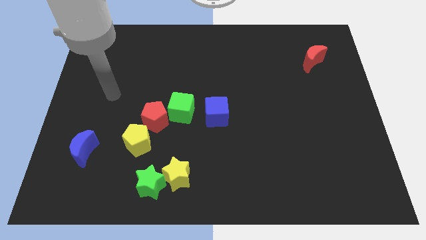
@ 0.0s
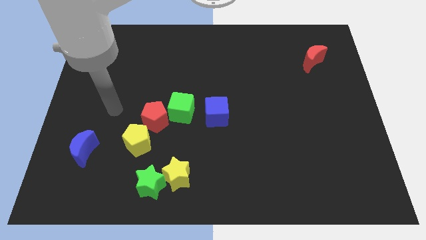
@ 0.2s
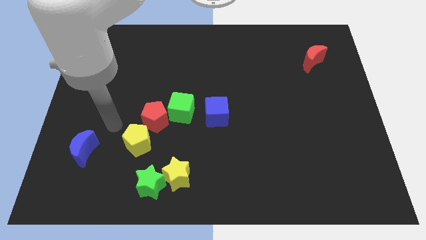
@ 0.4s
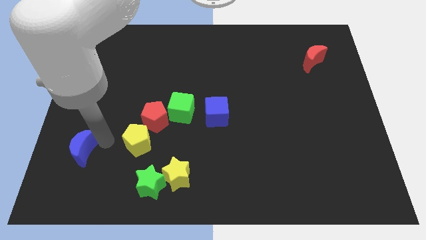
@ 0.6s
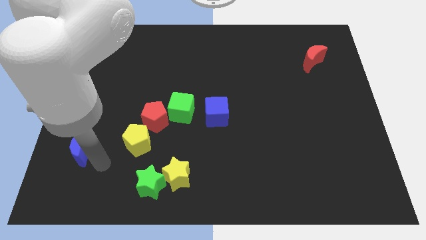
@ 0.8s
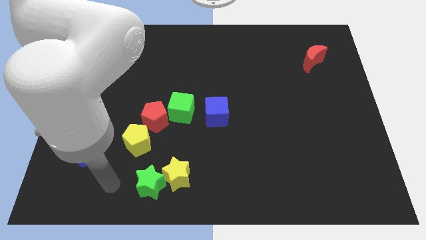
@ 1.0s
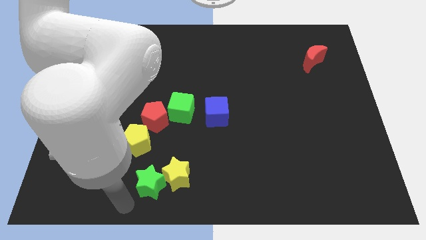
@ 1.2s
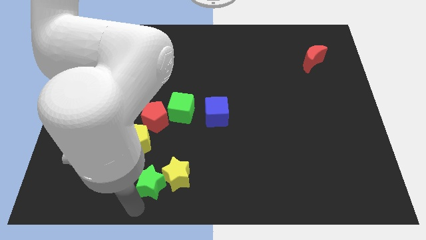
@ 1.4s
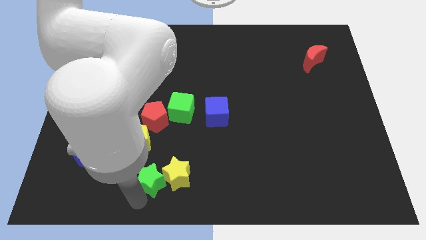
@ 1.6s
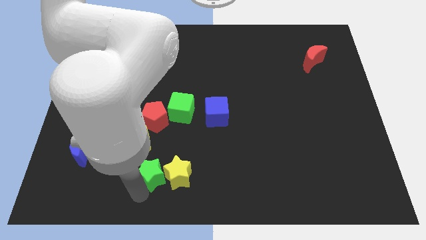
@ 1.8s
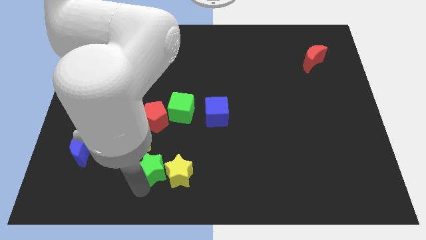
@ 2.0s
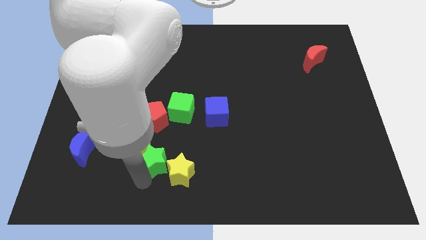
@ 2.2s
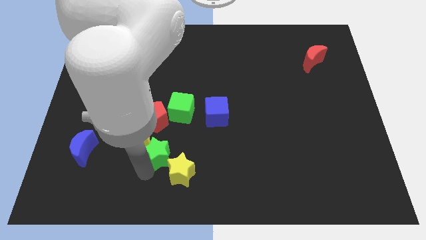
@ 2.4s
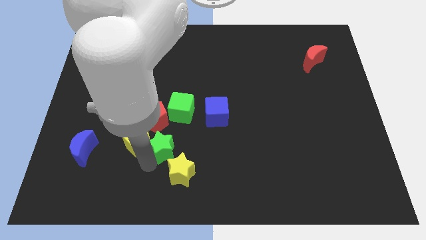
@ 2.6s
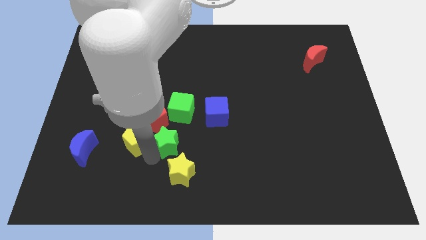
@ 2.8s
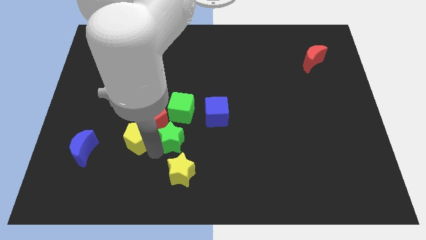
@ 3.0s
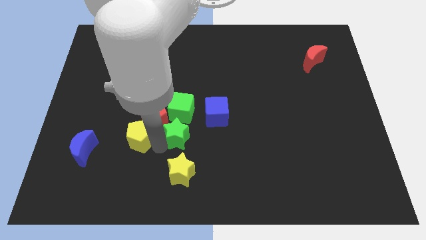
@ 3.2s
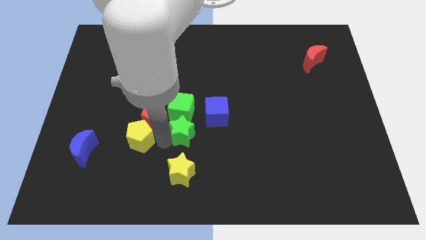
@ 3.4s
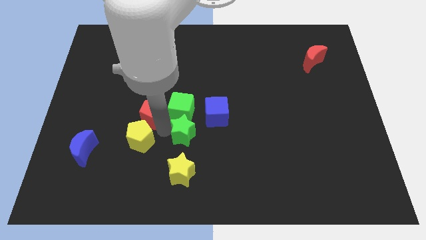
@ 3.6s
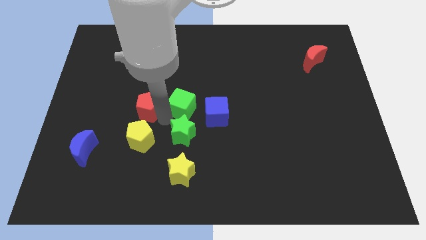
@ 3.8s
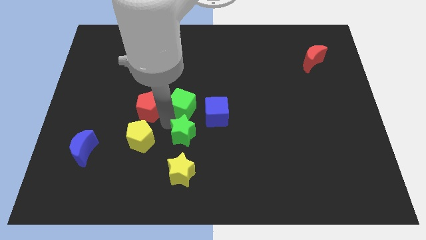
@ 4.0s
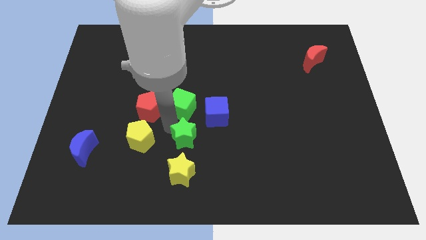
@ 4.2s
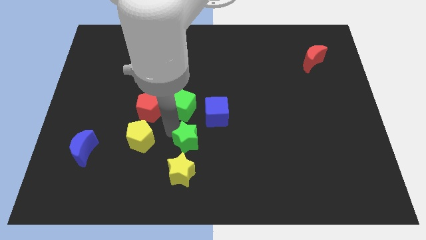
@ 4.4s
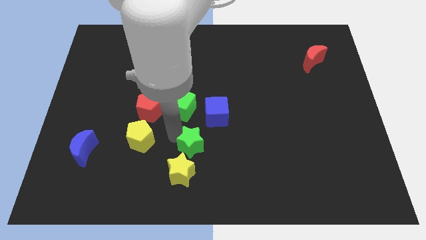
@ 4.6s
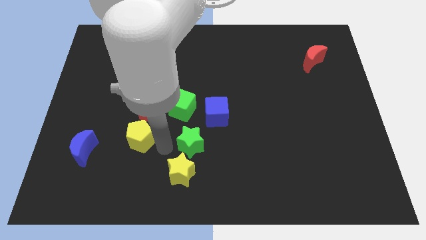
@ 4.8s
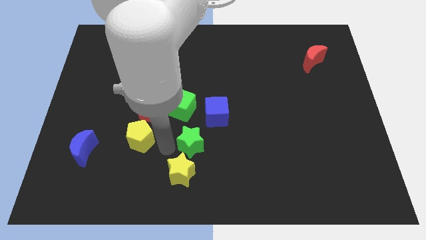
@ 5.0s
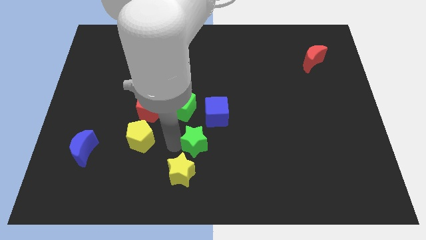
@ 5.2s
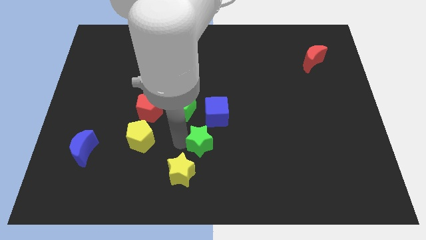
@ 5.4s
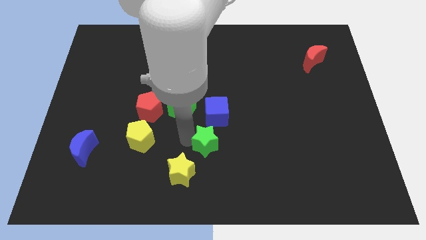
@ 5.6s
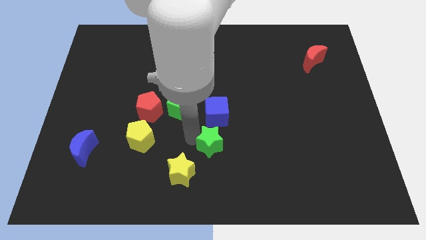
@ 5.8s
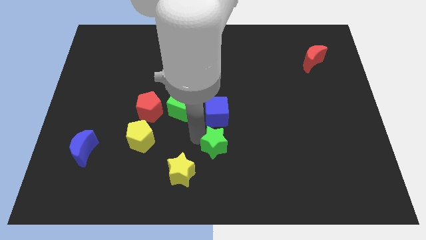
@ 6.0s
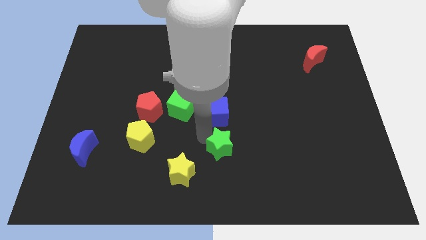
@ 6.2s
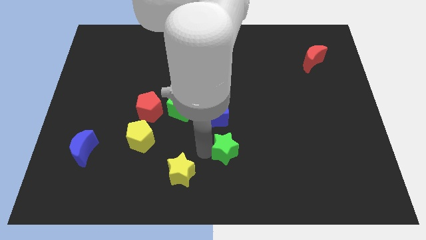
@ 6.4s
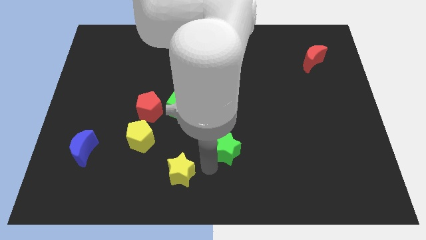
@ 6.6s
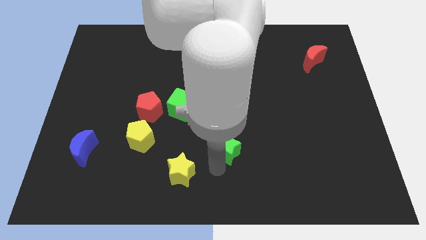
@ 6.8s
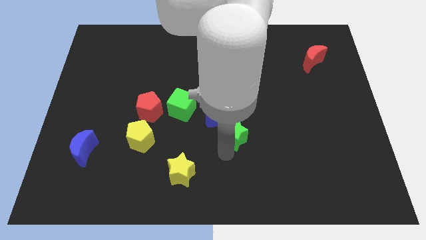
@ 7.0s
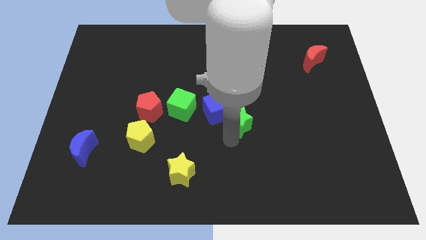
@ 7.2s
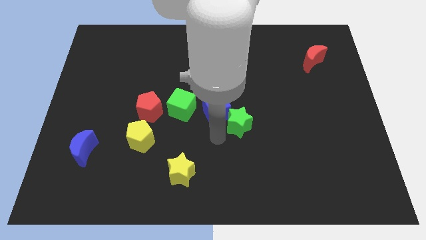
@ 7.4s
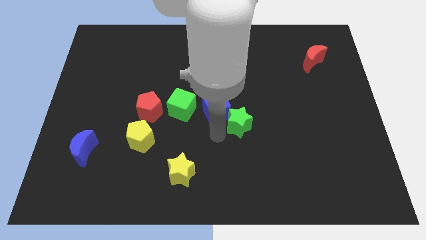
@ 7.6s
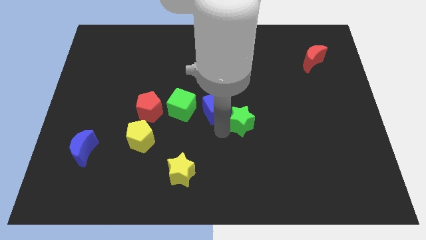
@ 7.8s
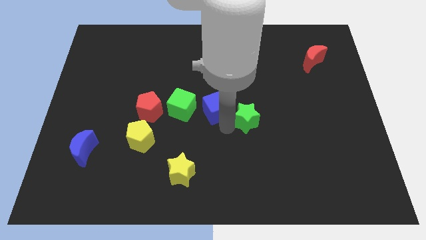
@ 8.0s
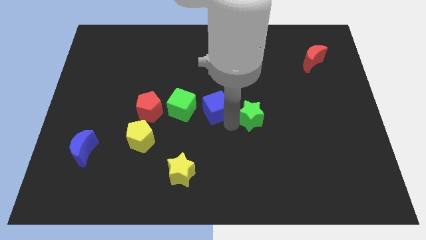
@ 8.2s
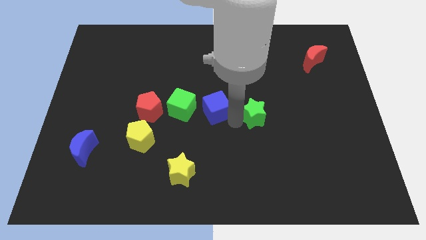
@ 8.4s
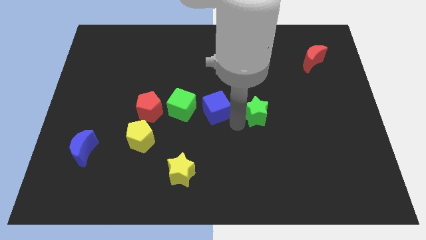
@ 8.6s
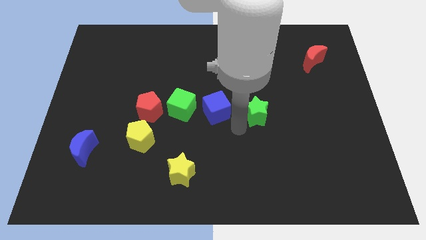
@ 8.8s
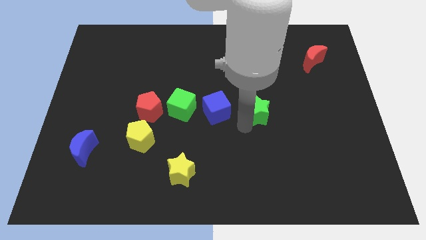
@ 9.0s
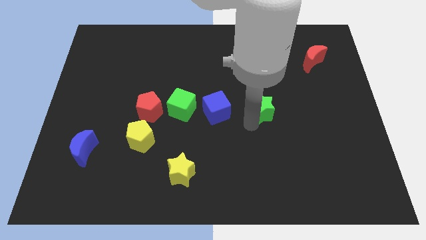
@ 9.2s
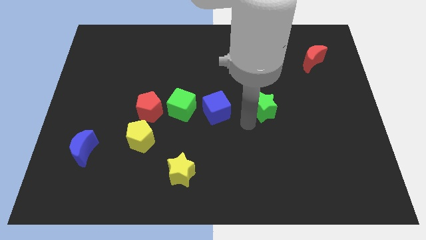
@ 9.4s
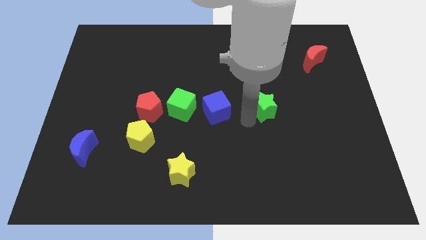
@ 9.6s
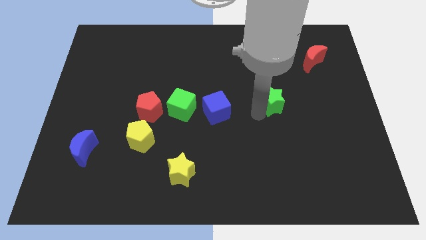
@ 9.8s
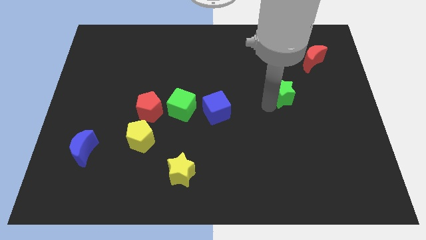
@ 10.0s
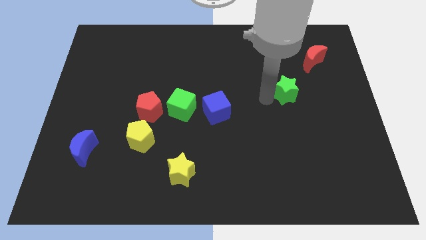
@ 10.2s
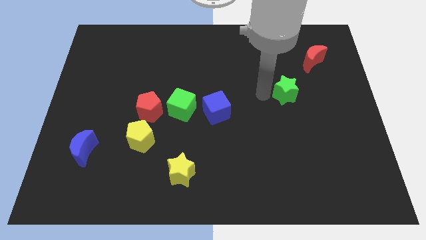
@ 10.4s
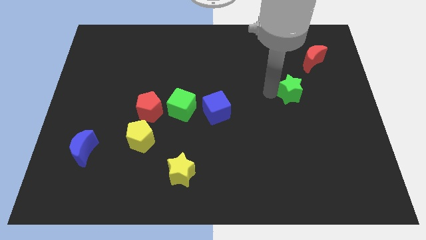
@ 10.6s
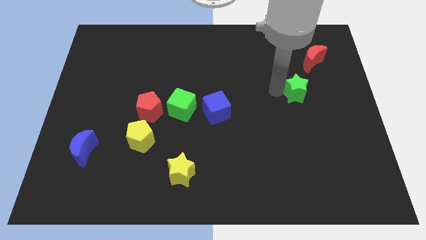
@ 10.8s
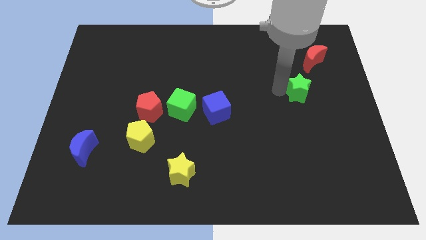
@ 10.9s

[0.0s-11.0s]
push the green star below the red moon

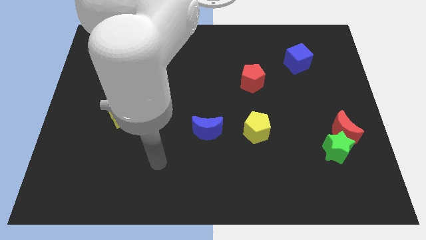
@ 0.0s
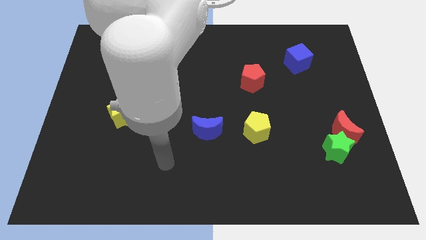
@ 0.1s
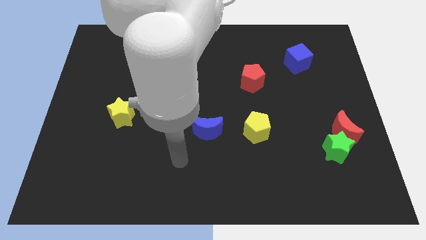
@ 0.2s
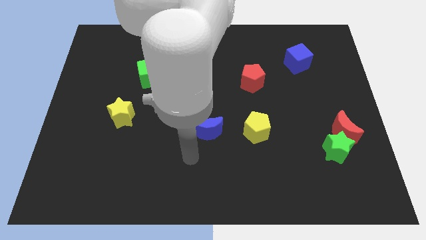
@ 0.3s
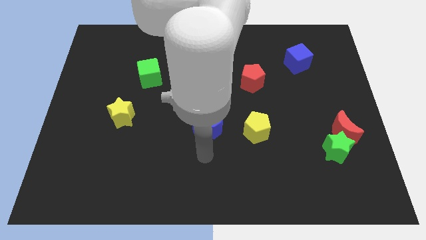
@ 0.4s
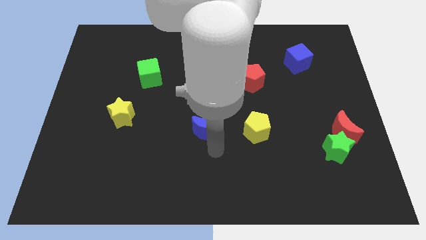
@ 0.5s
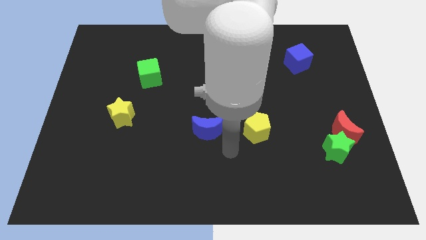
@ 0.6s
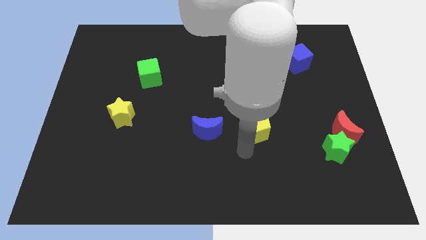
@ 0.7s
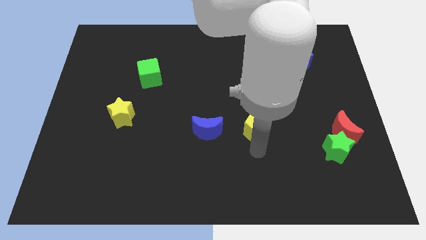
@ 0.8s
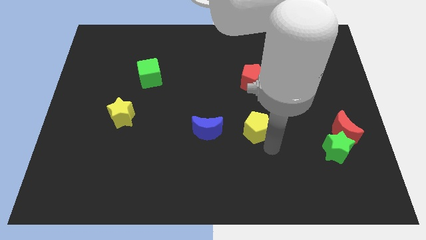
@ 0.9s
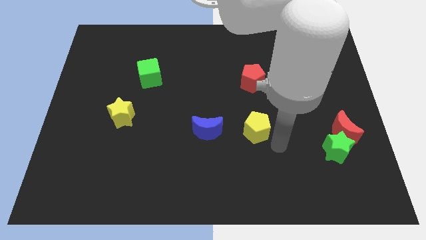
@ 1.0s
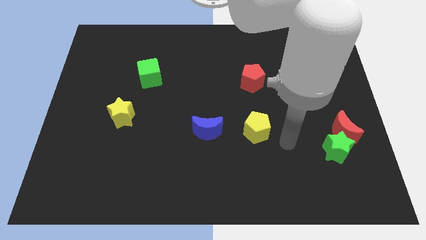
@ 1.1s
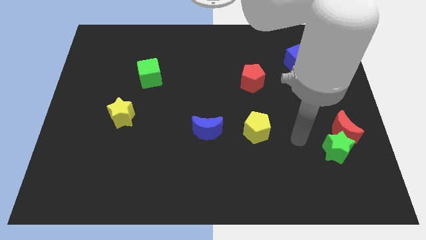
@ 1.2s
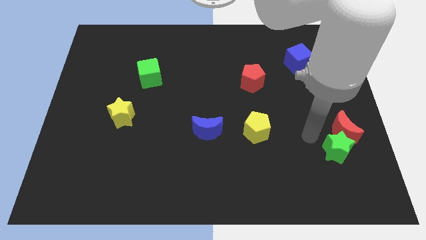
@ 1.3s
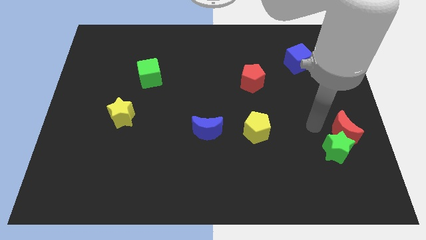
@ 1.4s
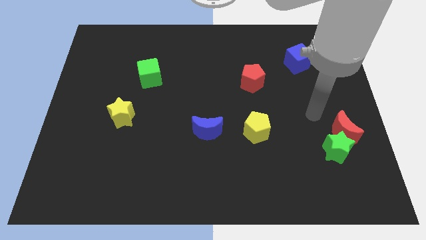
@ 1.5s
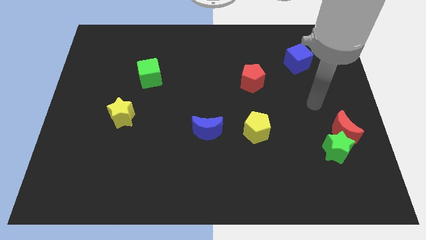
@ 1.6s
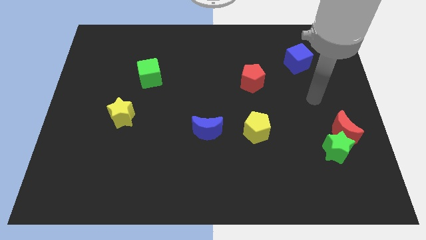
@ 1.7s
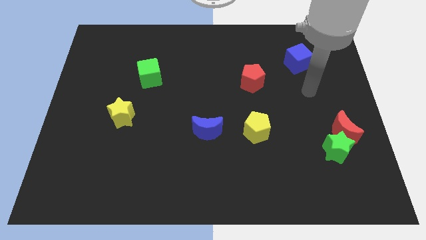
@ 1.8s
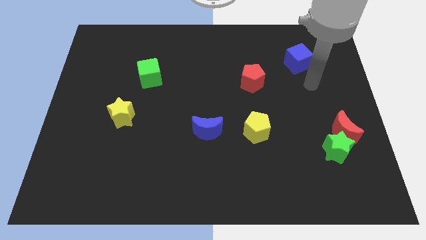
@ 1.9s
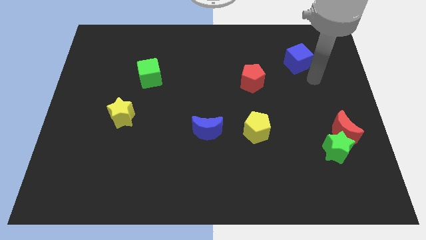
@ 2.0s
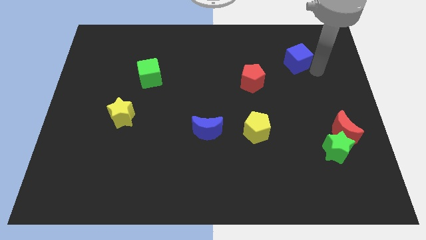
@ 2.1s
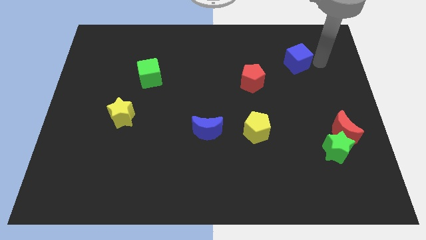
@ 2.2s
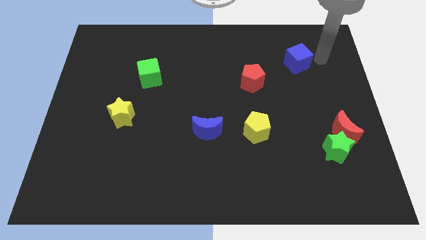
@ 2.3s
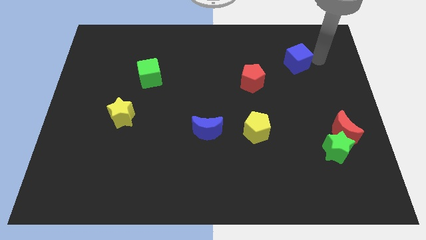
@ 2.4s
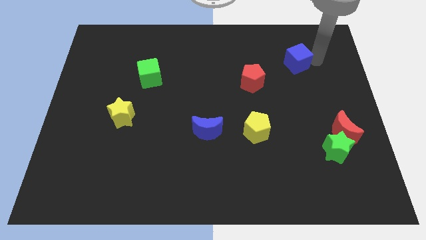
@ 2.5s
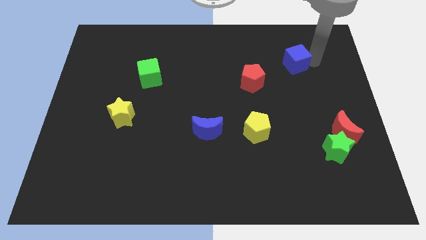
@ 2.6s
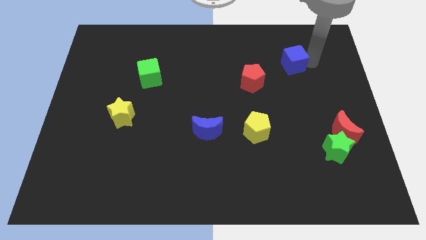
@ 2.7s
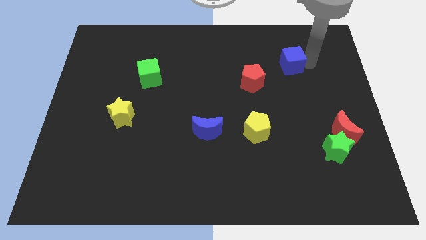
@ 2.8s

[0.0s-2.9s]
push the blue cube to the top right of the red pentagon
